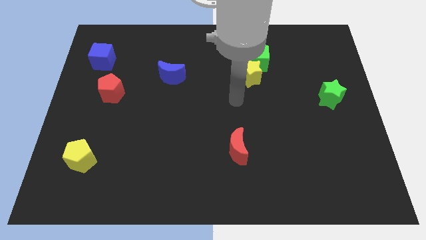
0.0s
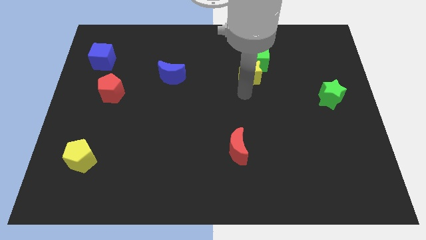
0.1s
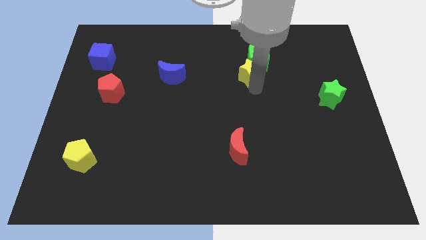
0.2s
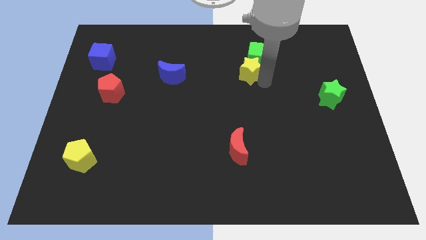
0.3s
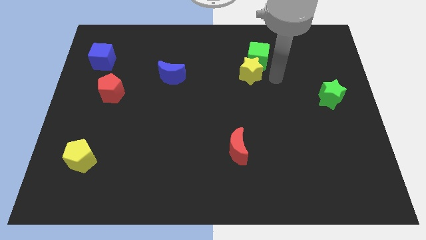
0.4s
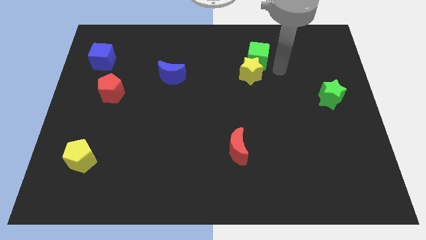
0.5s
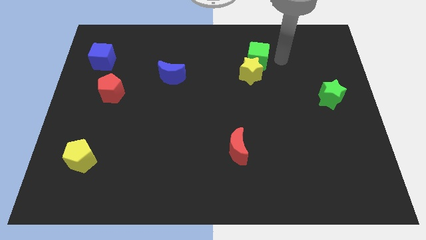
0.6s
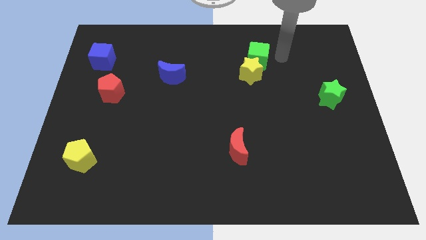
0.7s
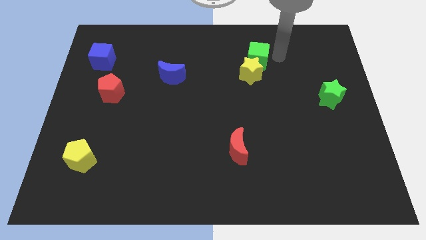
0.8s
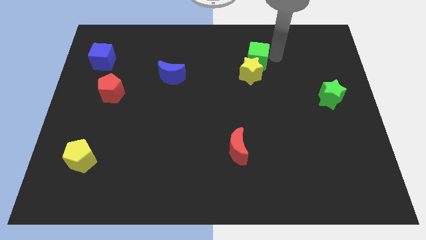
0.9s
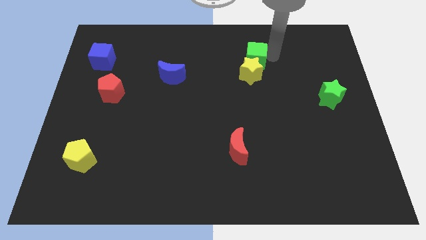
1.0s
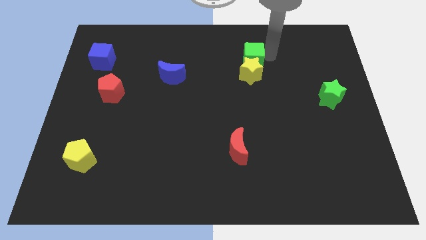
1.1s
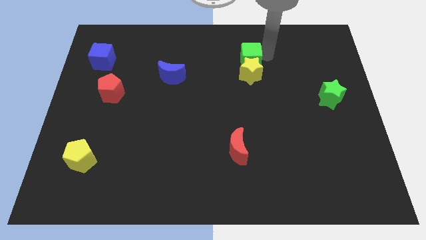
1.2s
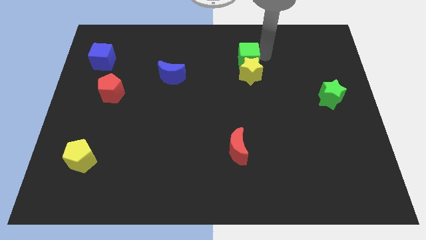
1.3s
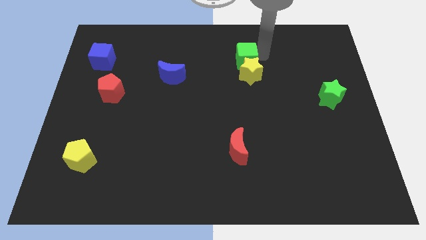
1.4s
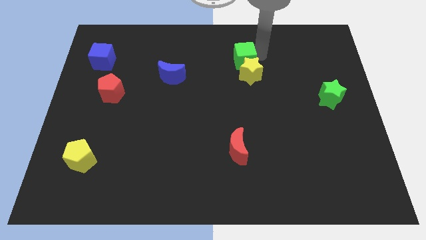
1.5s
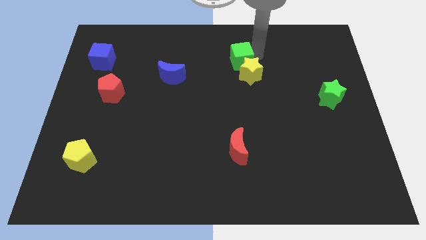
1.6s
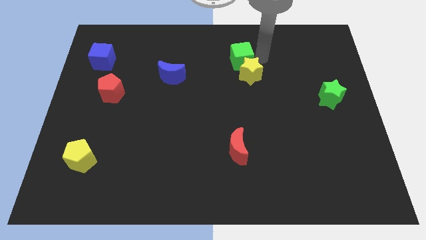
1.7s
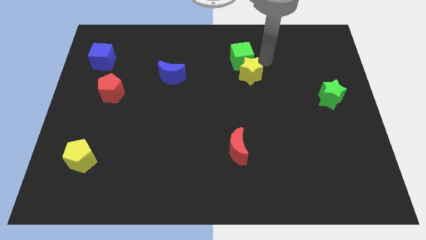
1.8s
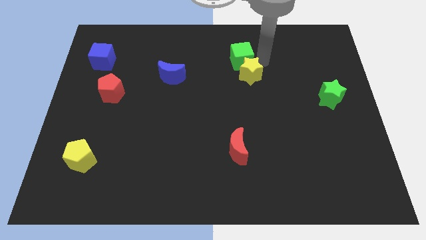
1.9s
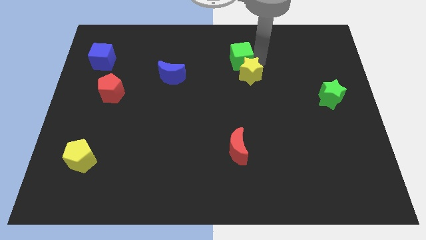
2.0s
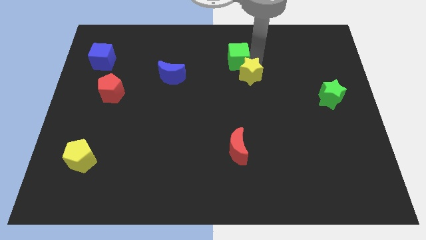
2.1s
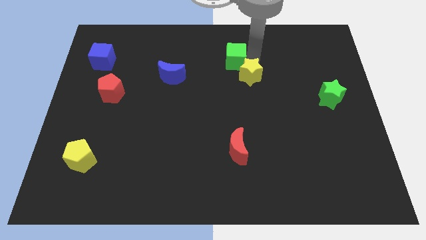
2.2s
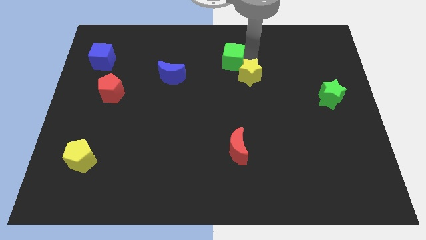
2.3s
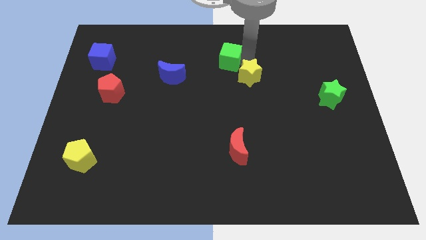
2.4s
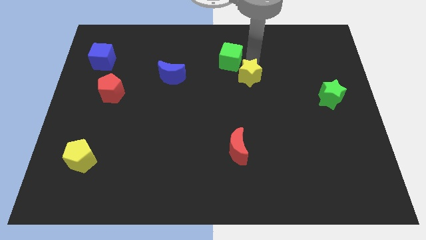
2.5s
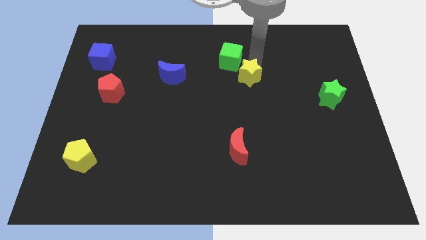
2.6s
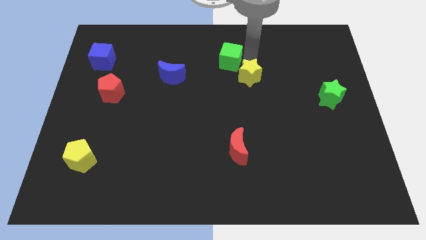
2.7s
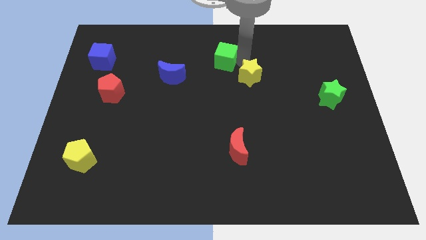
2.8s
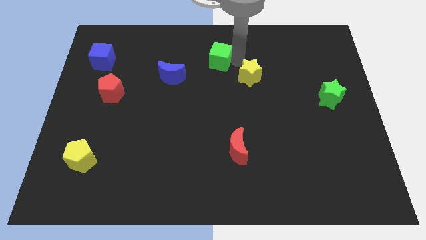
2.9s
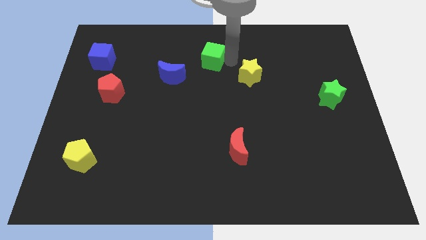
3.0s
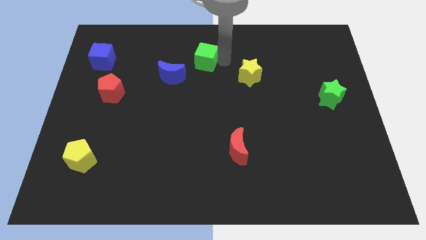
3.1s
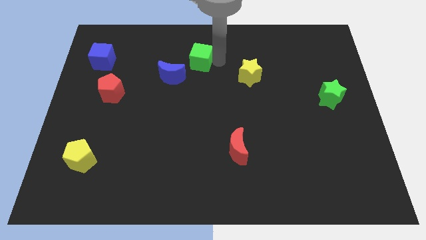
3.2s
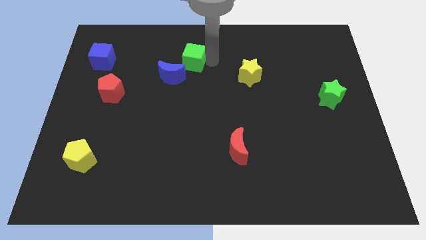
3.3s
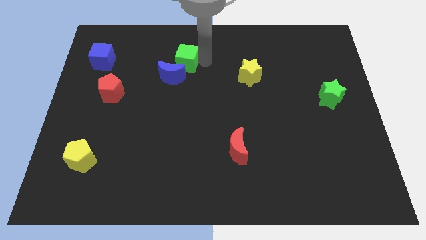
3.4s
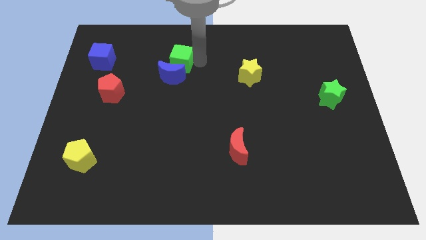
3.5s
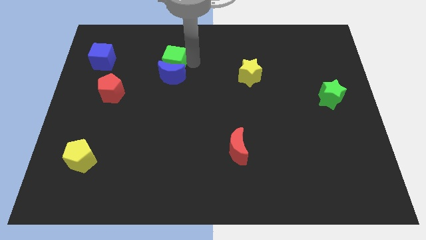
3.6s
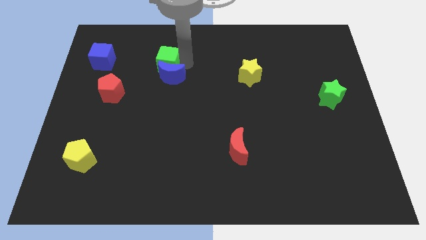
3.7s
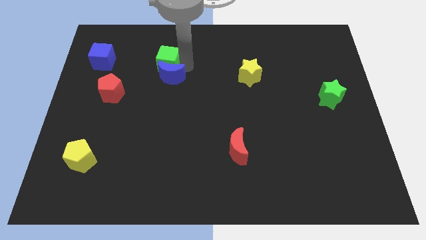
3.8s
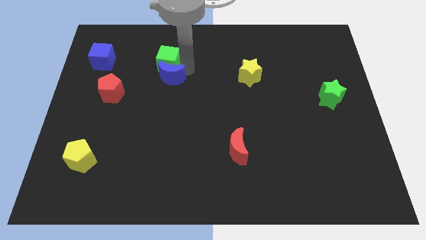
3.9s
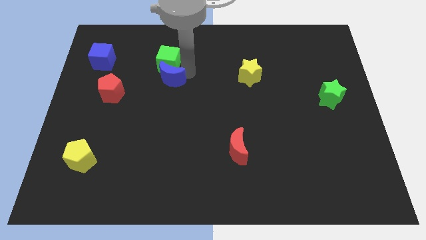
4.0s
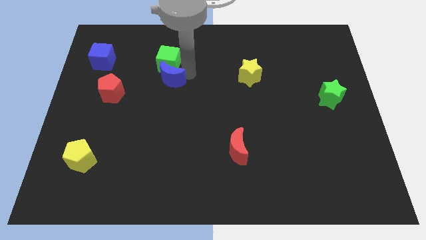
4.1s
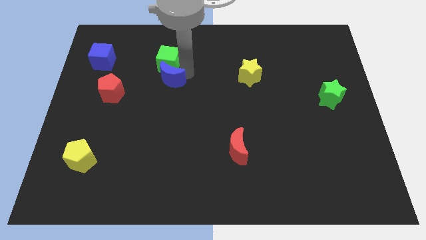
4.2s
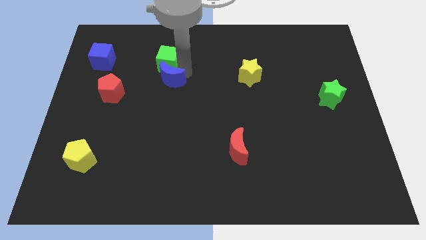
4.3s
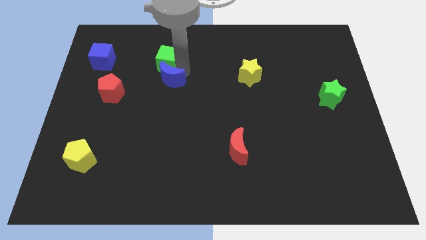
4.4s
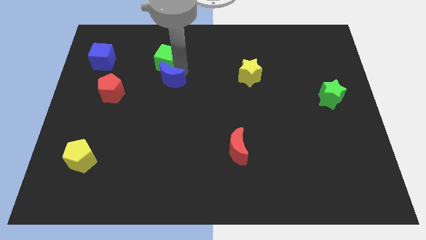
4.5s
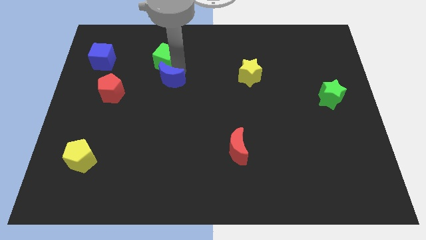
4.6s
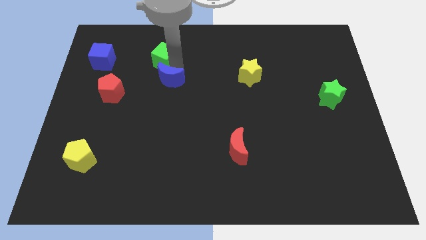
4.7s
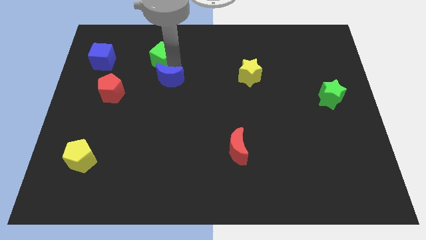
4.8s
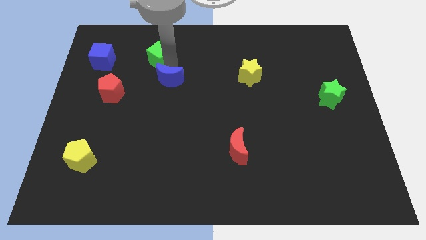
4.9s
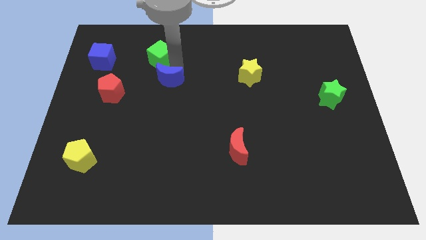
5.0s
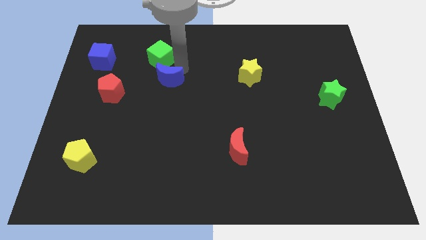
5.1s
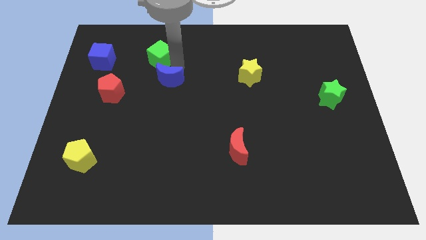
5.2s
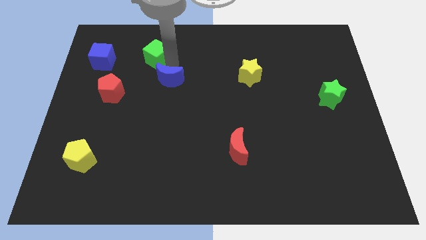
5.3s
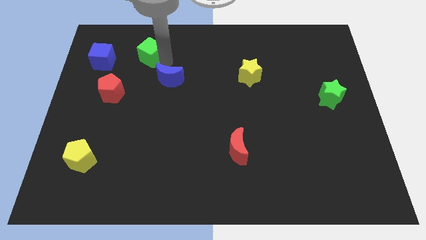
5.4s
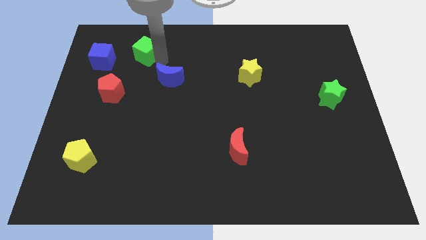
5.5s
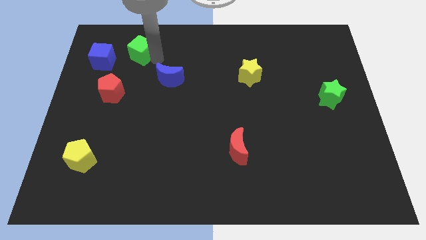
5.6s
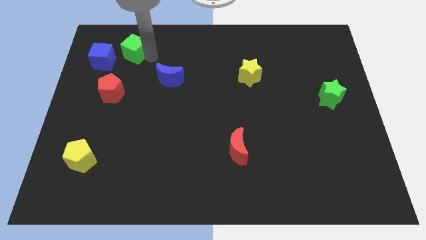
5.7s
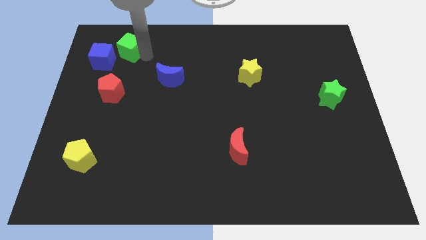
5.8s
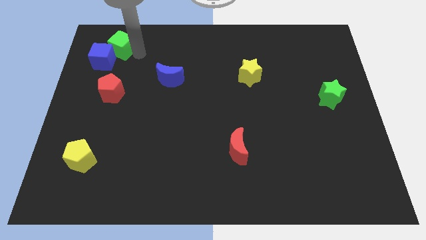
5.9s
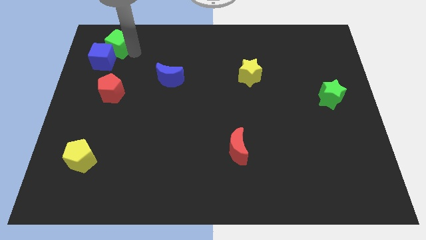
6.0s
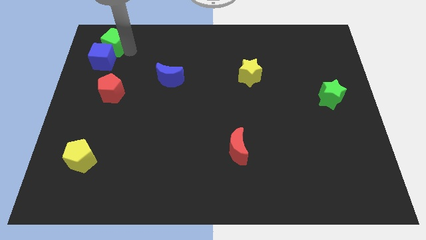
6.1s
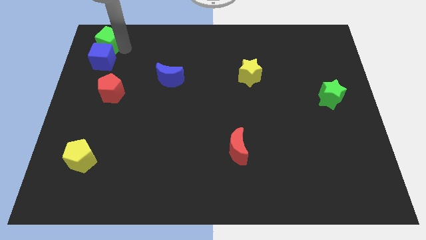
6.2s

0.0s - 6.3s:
push the green cube to the top left of the board
